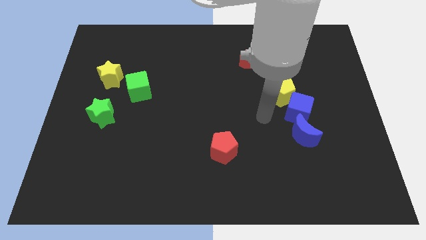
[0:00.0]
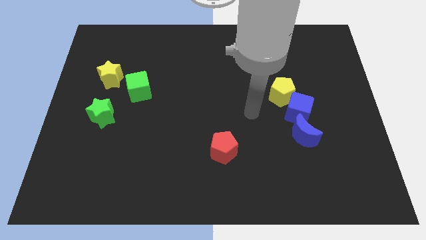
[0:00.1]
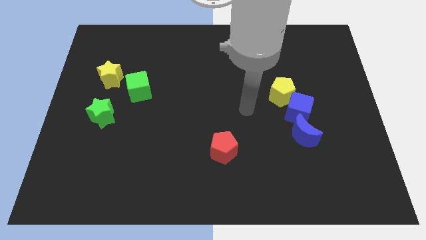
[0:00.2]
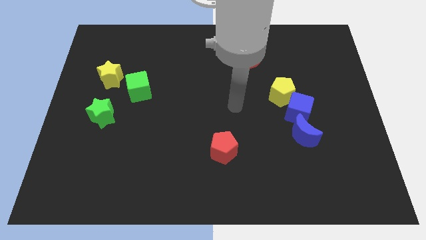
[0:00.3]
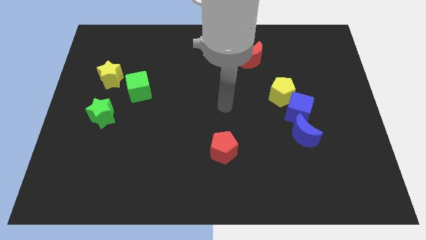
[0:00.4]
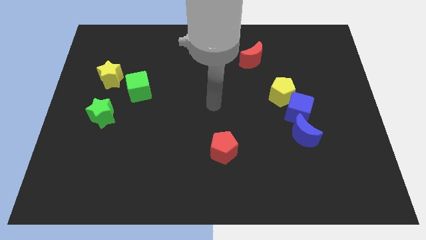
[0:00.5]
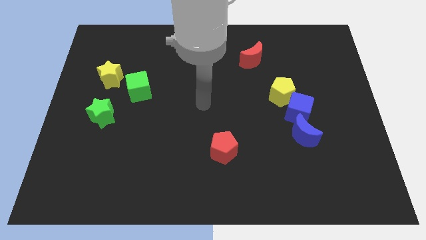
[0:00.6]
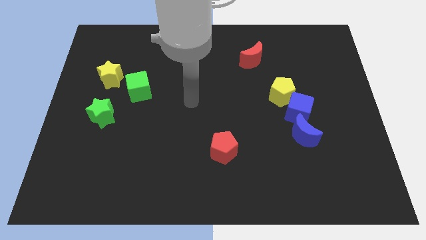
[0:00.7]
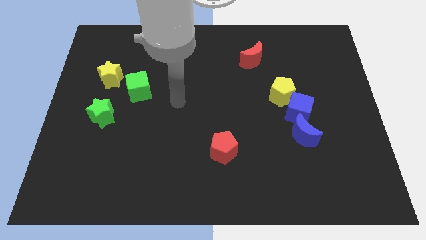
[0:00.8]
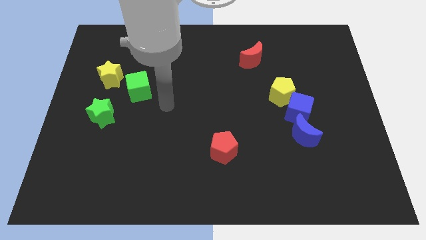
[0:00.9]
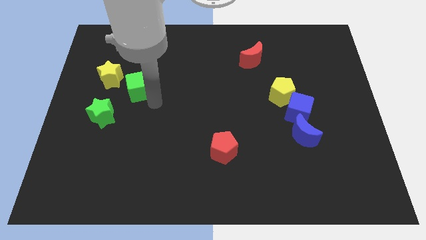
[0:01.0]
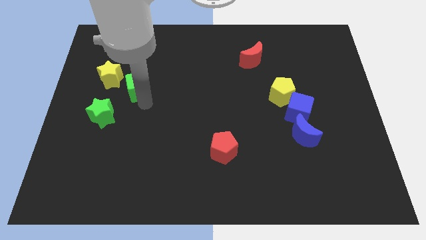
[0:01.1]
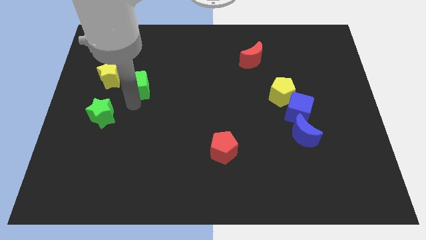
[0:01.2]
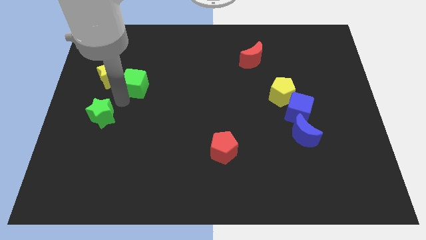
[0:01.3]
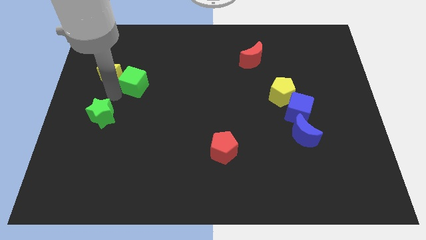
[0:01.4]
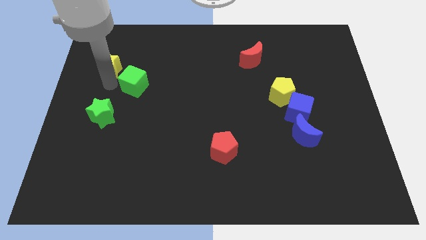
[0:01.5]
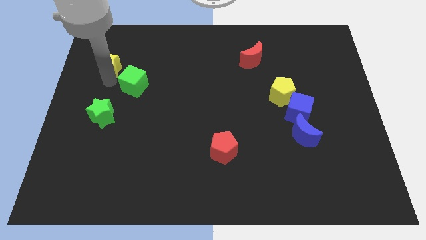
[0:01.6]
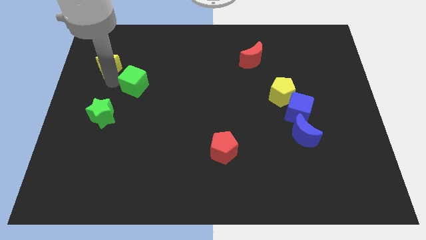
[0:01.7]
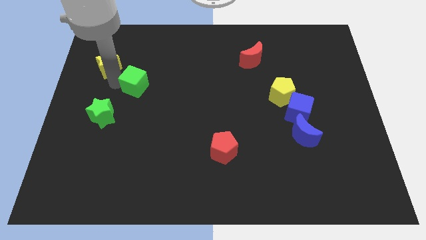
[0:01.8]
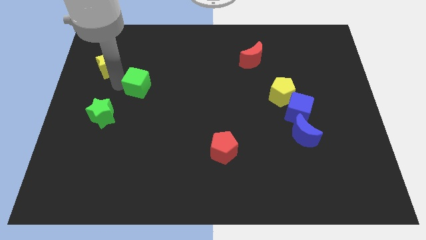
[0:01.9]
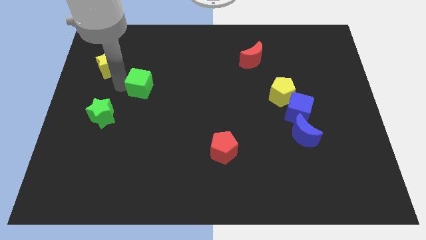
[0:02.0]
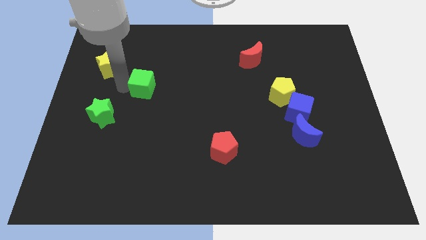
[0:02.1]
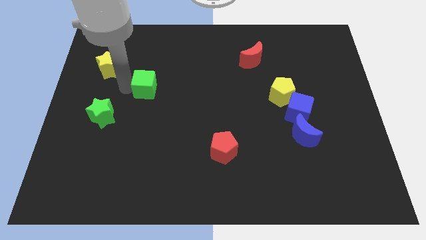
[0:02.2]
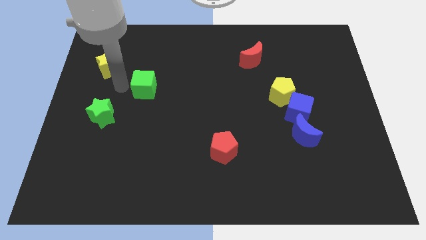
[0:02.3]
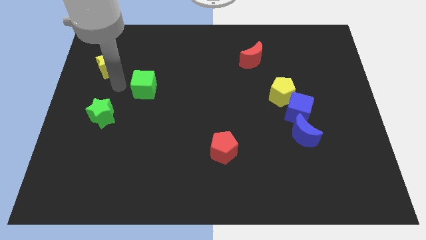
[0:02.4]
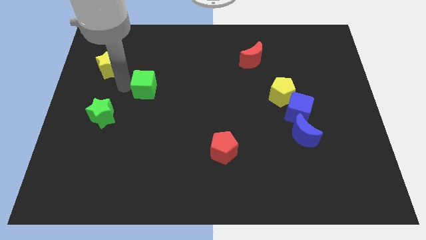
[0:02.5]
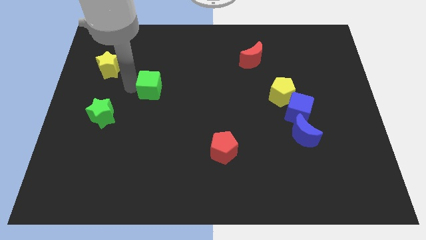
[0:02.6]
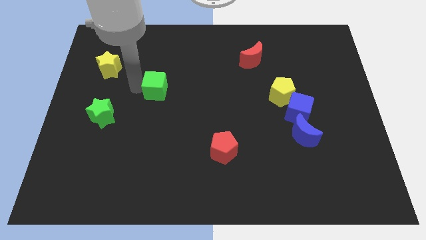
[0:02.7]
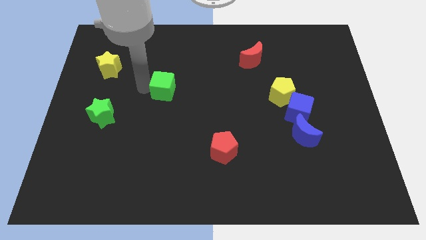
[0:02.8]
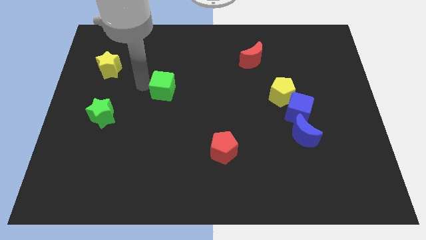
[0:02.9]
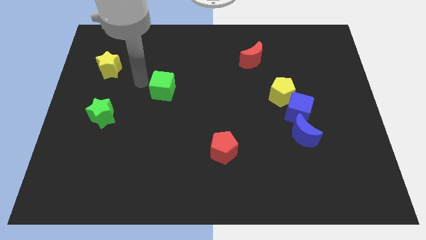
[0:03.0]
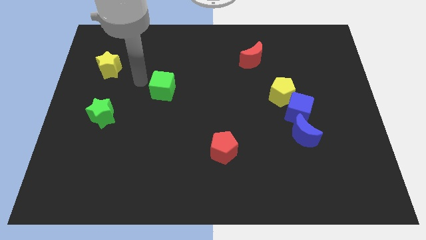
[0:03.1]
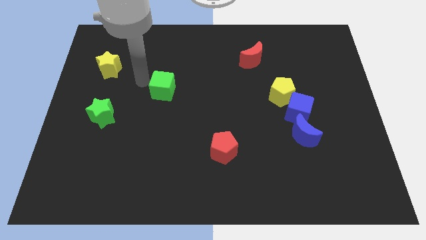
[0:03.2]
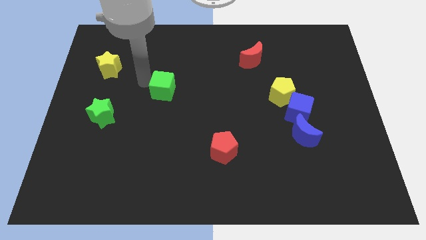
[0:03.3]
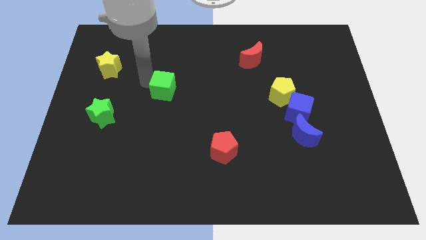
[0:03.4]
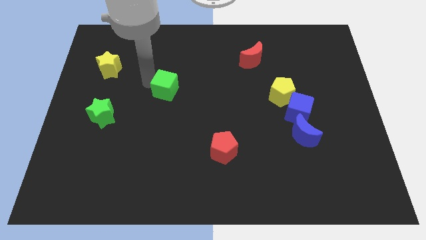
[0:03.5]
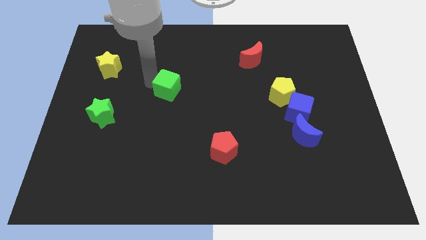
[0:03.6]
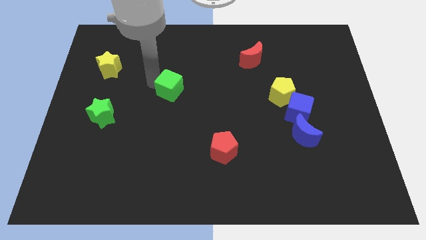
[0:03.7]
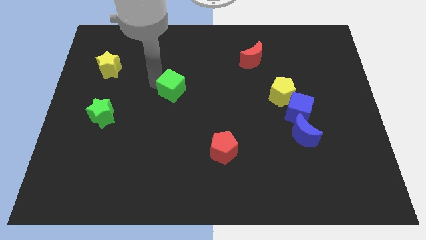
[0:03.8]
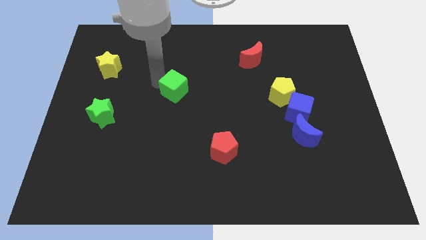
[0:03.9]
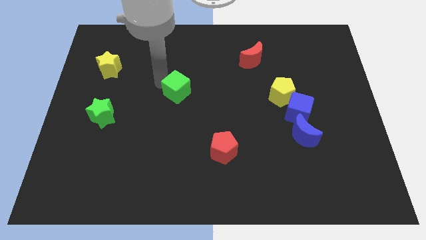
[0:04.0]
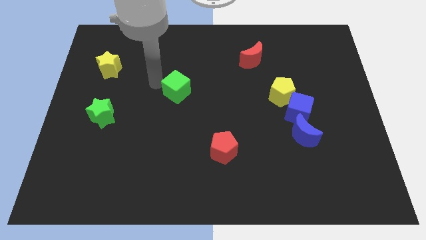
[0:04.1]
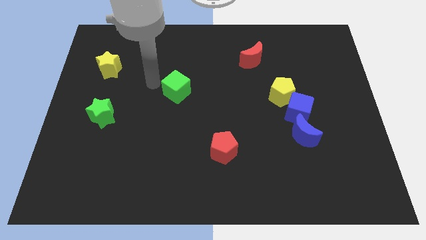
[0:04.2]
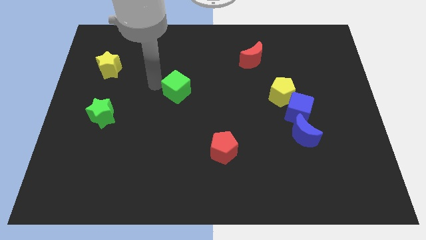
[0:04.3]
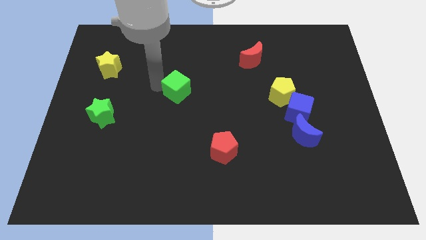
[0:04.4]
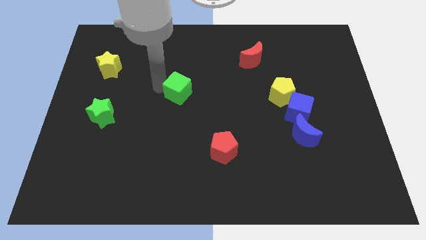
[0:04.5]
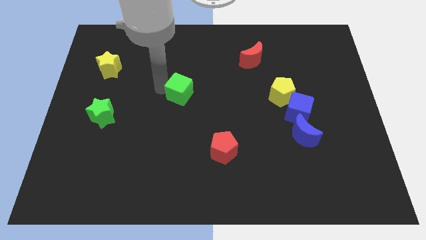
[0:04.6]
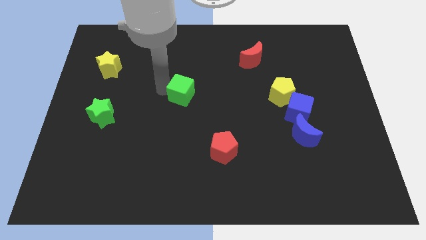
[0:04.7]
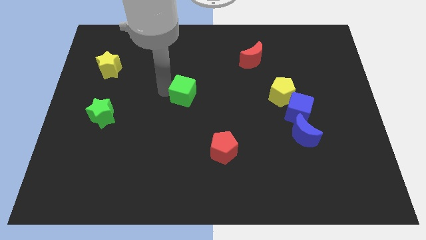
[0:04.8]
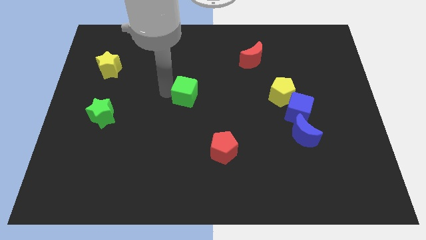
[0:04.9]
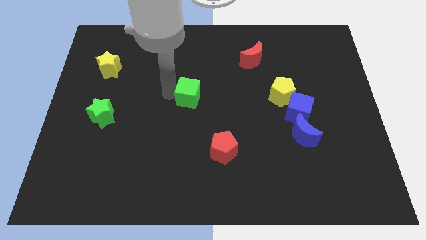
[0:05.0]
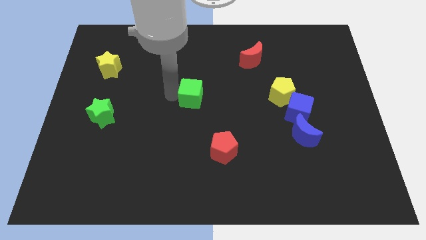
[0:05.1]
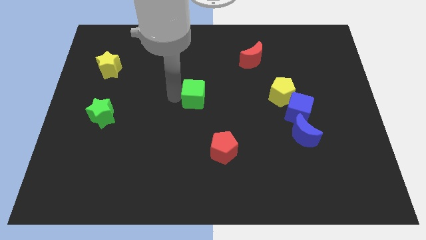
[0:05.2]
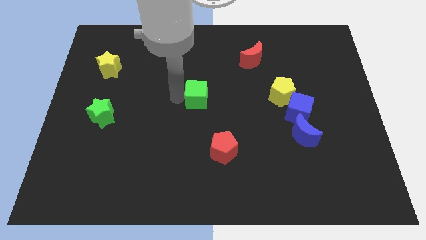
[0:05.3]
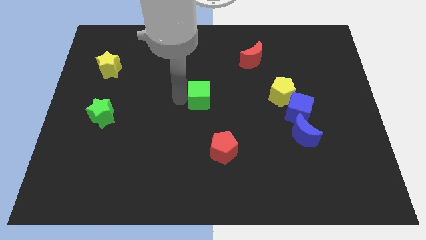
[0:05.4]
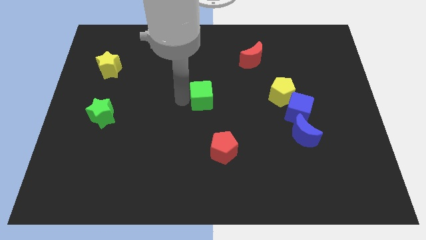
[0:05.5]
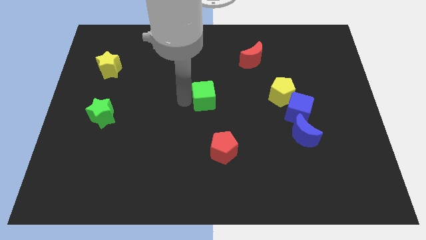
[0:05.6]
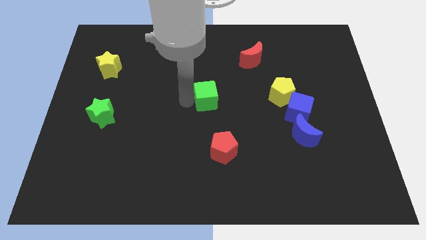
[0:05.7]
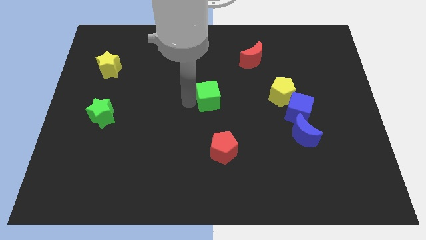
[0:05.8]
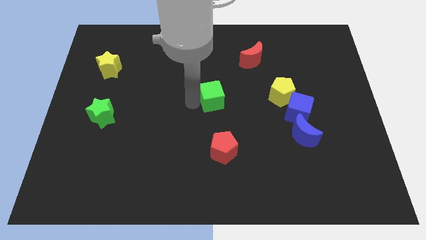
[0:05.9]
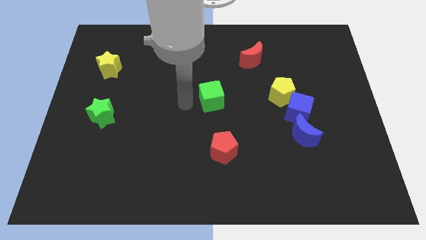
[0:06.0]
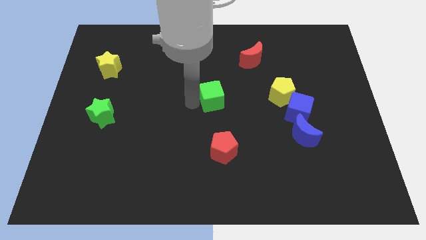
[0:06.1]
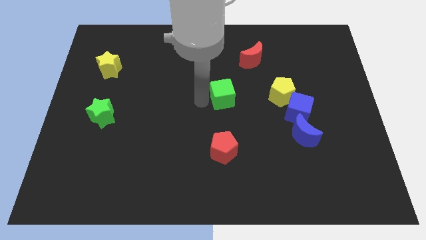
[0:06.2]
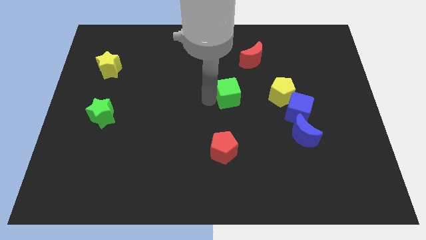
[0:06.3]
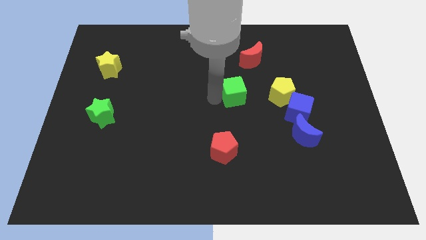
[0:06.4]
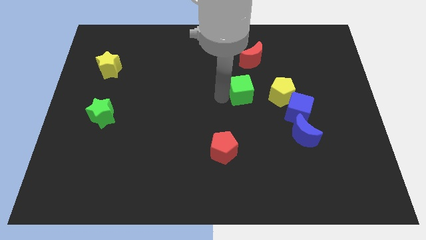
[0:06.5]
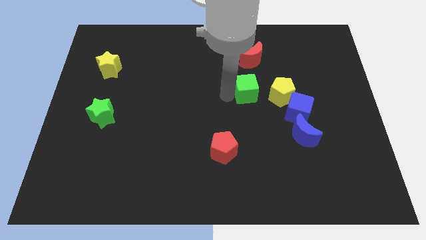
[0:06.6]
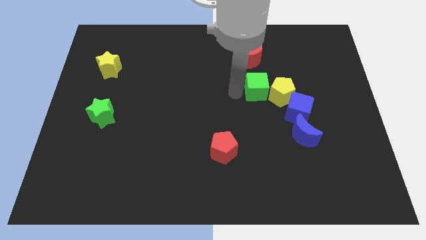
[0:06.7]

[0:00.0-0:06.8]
move the green cube to the yellow pentagon
